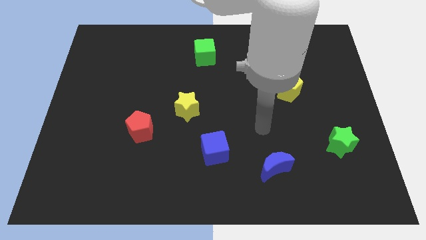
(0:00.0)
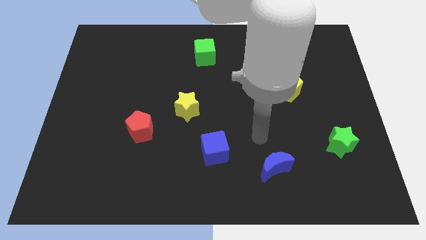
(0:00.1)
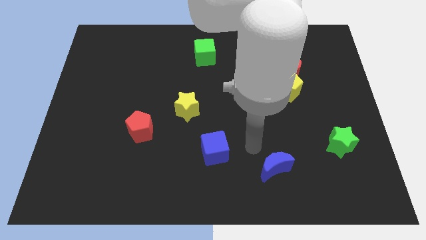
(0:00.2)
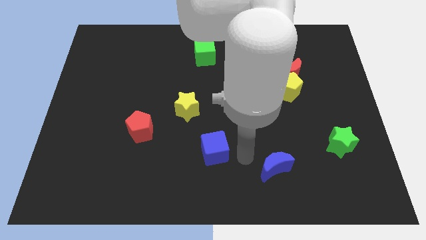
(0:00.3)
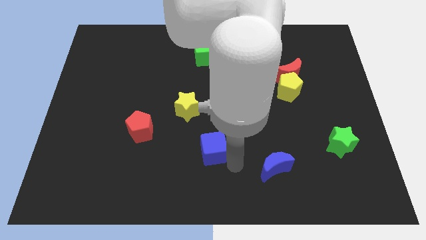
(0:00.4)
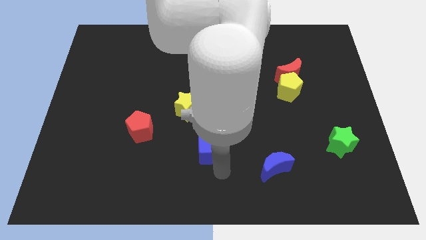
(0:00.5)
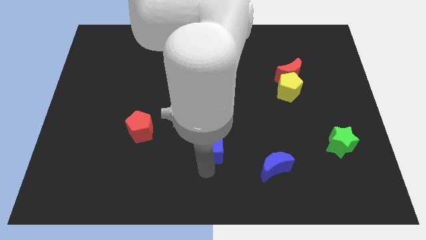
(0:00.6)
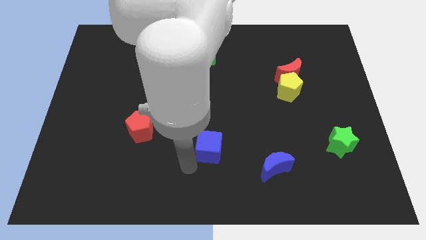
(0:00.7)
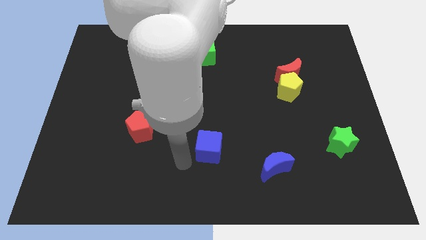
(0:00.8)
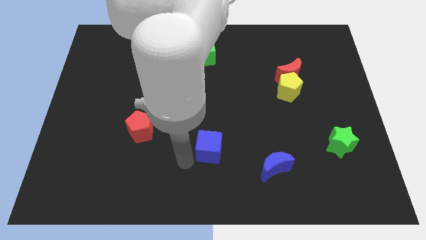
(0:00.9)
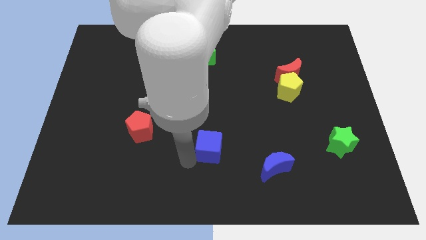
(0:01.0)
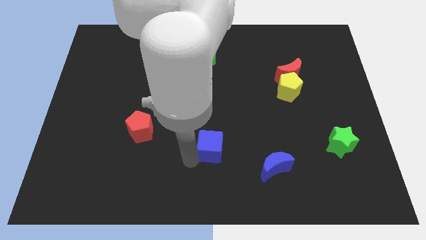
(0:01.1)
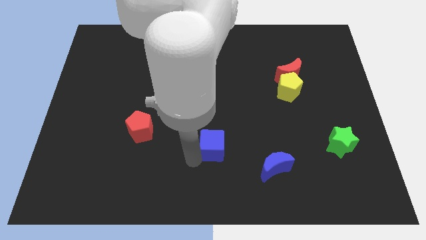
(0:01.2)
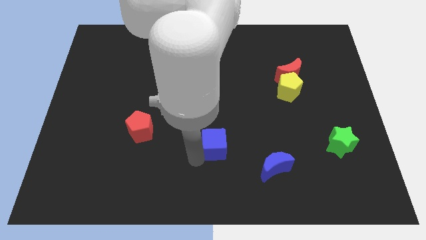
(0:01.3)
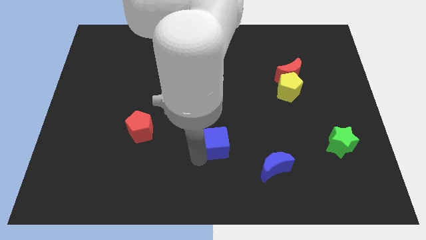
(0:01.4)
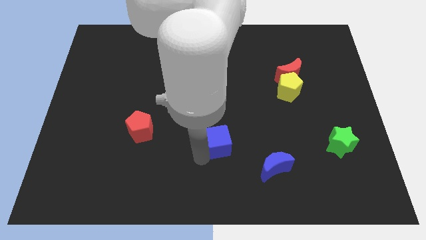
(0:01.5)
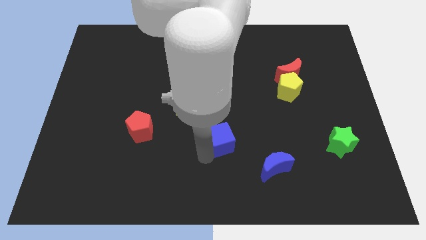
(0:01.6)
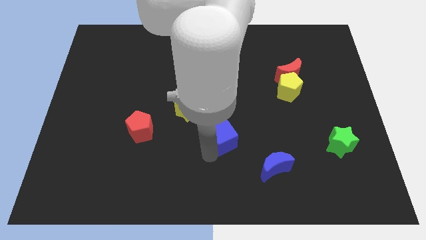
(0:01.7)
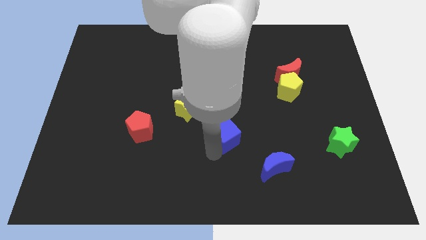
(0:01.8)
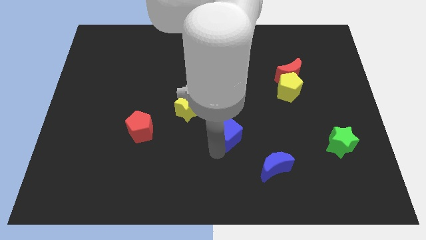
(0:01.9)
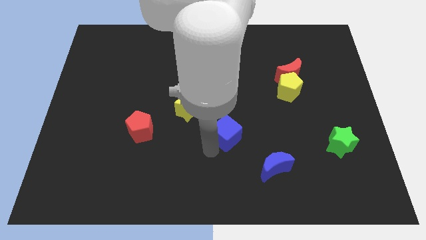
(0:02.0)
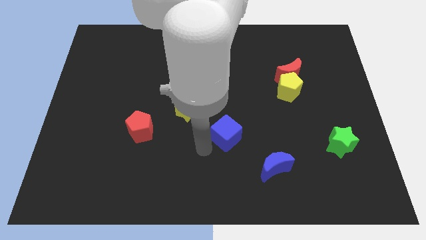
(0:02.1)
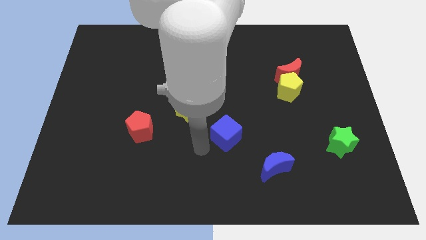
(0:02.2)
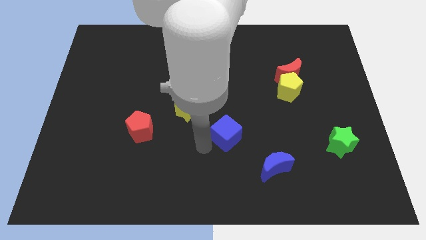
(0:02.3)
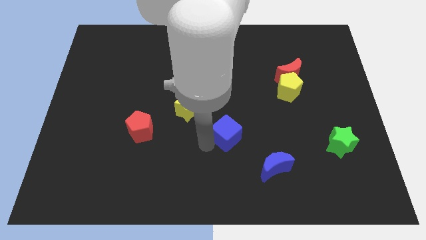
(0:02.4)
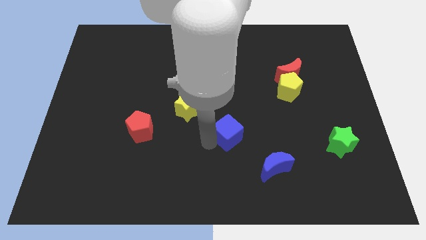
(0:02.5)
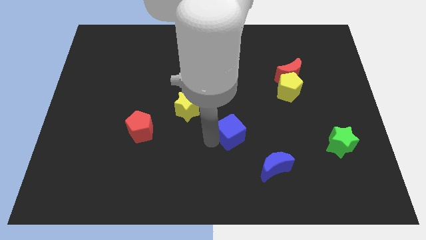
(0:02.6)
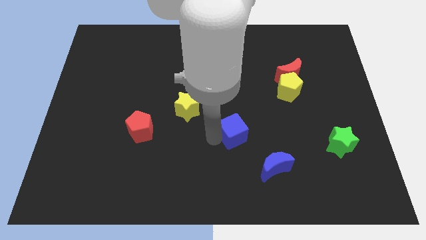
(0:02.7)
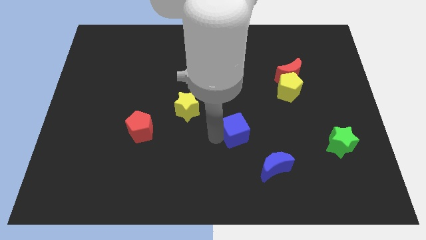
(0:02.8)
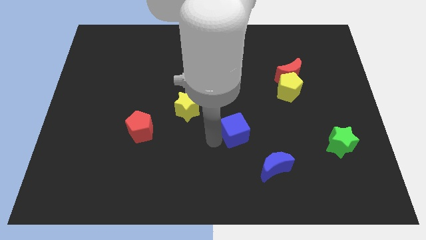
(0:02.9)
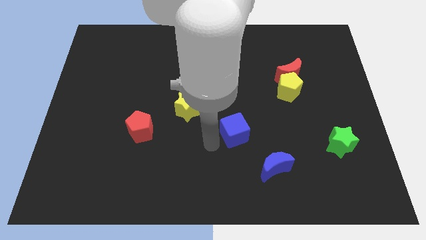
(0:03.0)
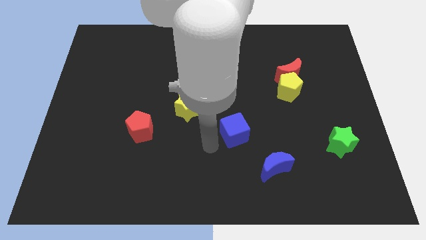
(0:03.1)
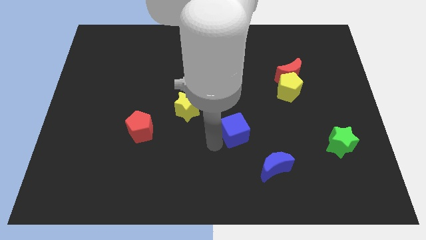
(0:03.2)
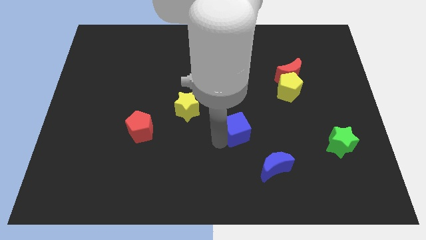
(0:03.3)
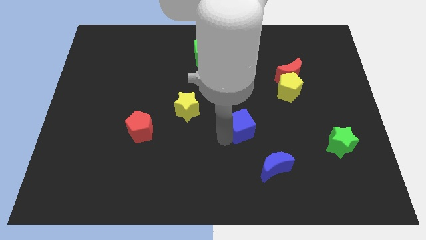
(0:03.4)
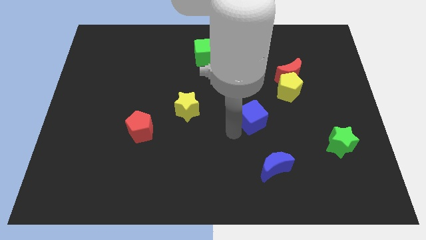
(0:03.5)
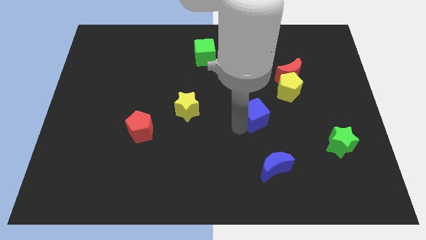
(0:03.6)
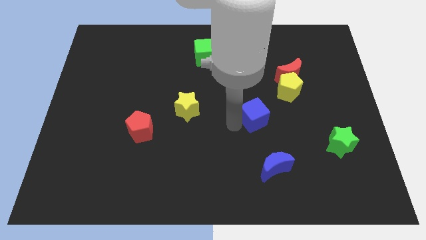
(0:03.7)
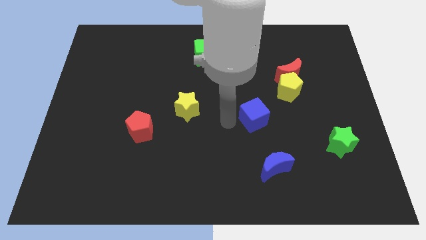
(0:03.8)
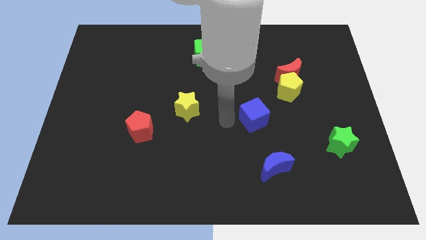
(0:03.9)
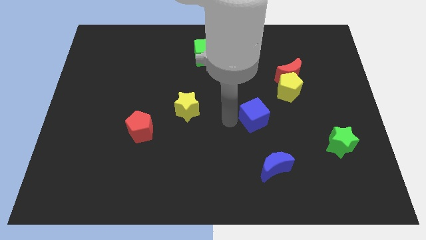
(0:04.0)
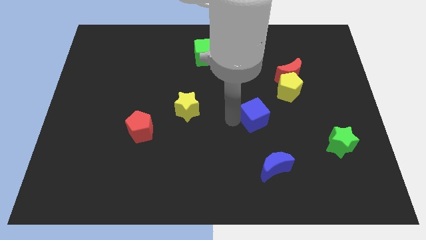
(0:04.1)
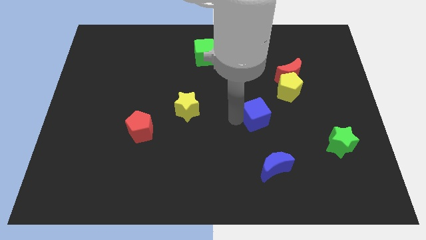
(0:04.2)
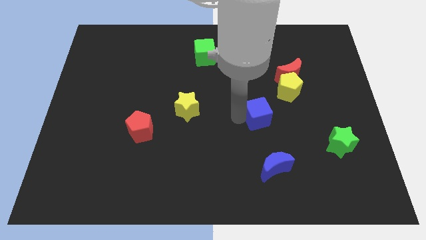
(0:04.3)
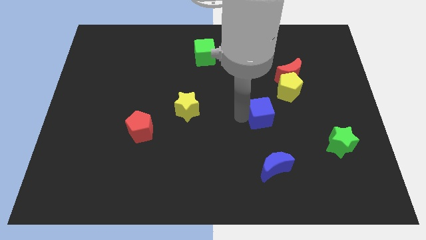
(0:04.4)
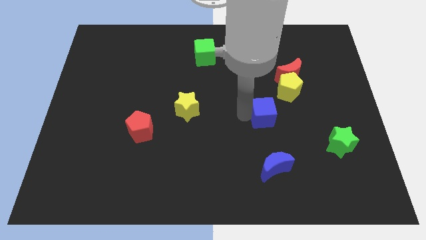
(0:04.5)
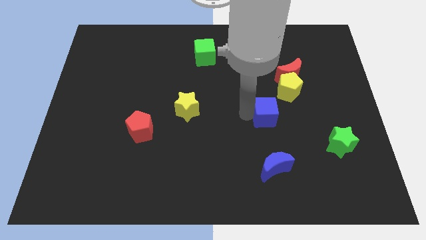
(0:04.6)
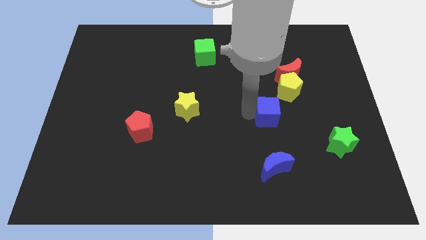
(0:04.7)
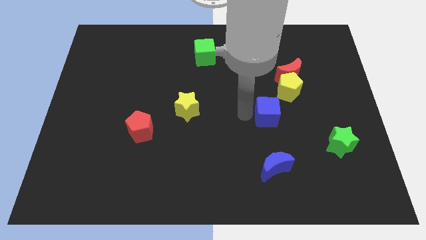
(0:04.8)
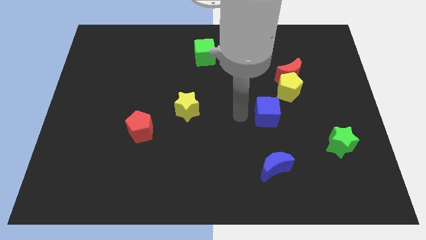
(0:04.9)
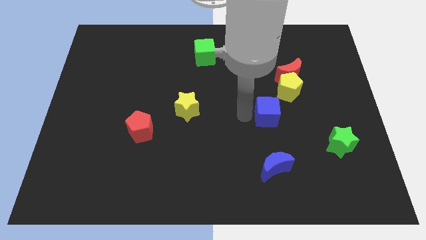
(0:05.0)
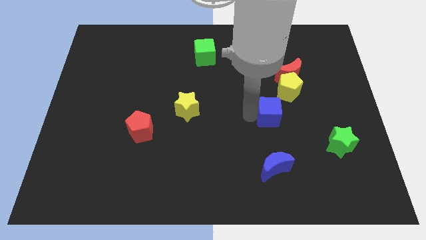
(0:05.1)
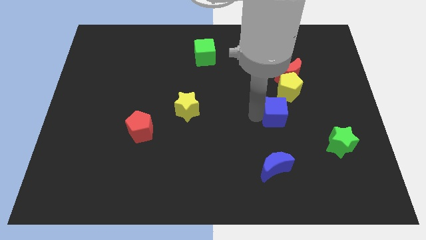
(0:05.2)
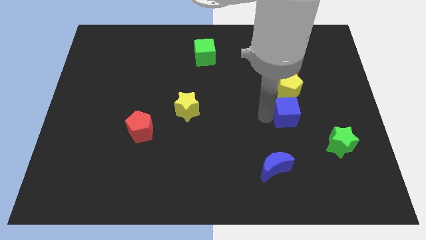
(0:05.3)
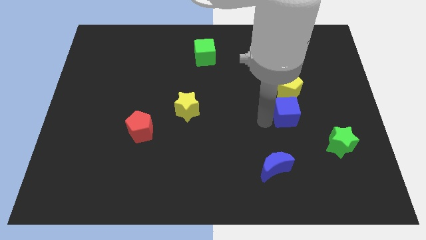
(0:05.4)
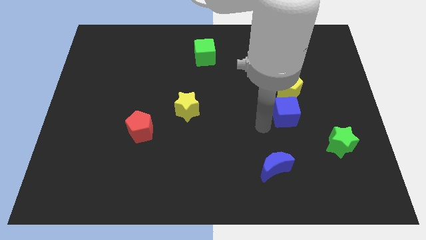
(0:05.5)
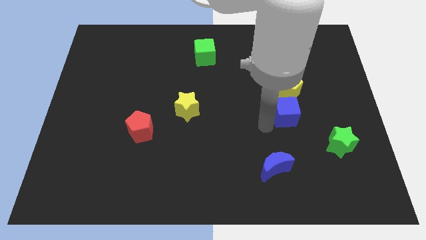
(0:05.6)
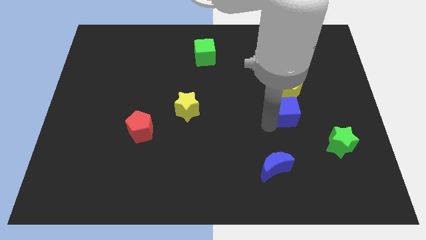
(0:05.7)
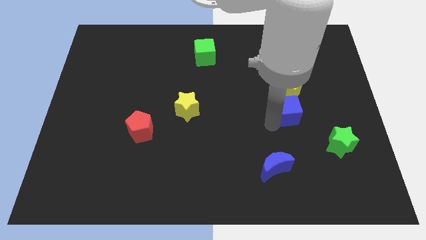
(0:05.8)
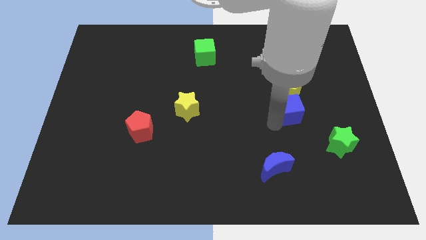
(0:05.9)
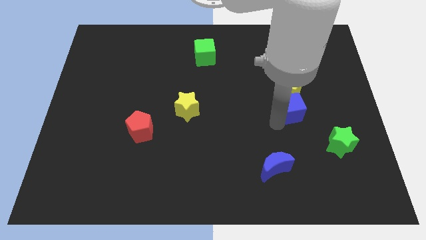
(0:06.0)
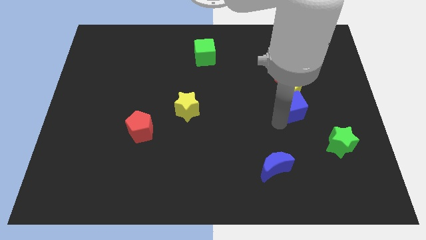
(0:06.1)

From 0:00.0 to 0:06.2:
push the blue cube up and to the right

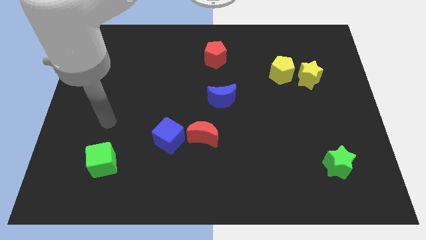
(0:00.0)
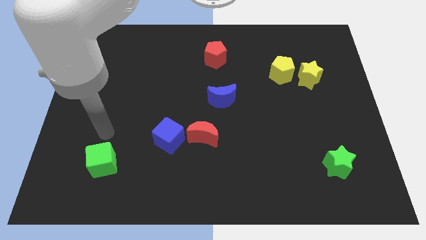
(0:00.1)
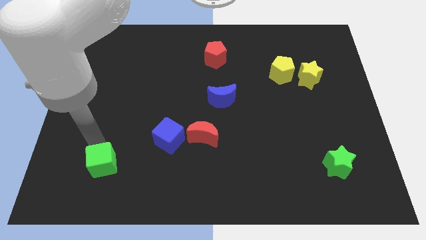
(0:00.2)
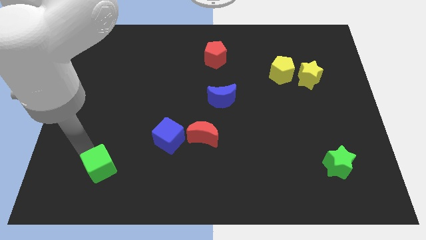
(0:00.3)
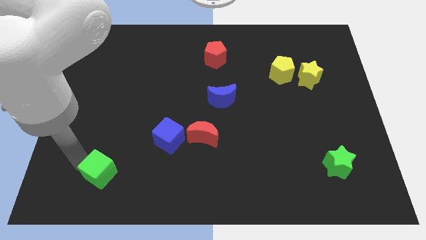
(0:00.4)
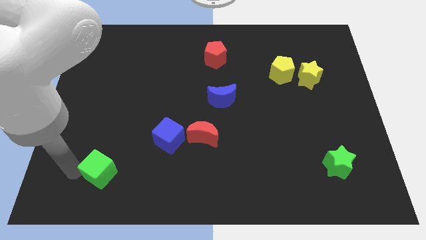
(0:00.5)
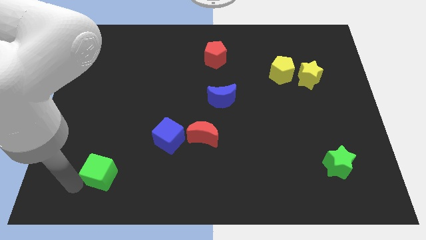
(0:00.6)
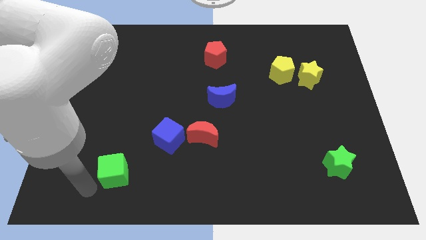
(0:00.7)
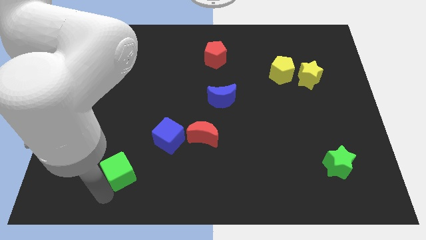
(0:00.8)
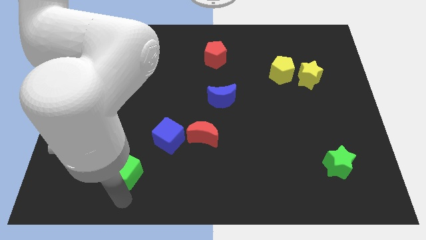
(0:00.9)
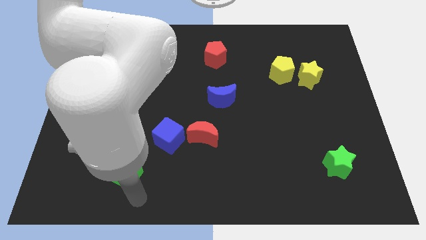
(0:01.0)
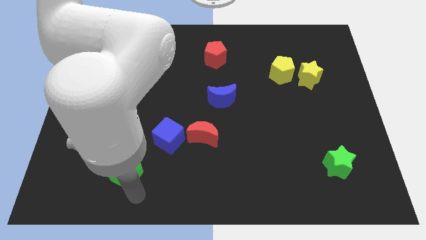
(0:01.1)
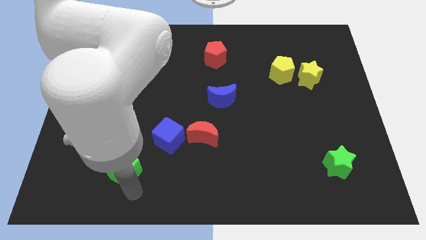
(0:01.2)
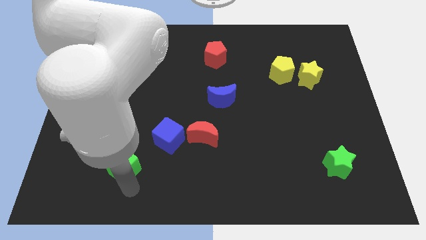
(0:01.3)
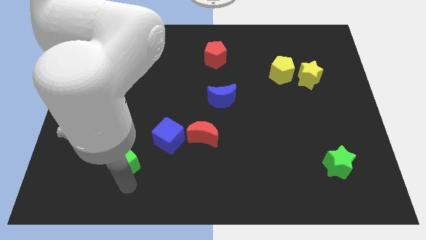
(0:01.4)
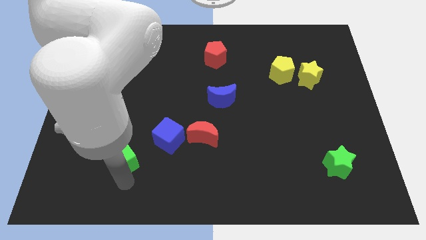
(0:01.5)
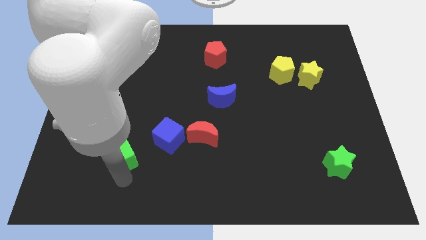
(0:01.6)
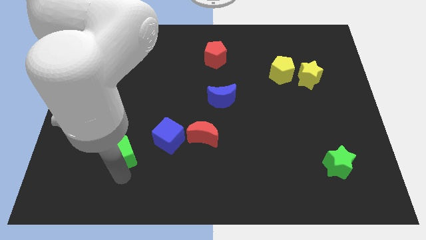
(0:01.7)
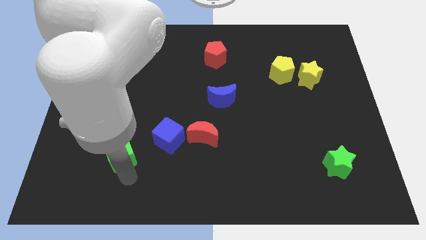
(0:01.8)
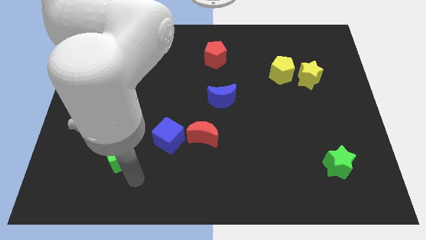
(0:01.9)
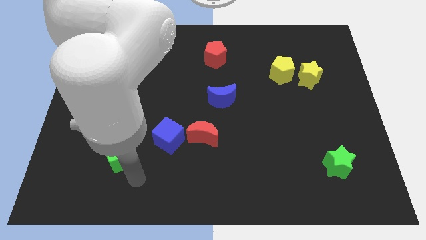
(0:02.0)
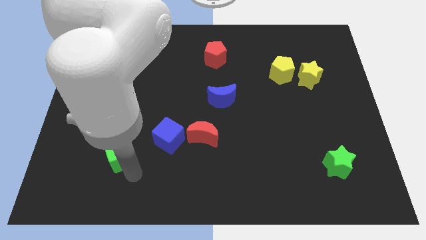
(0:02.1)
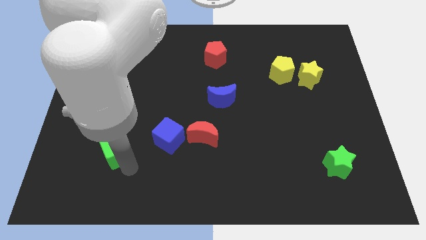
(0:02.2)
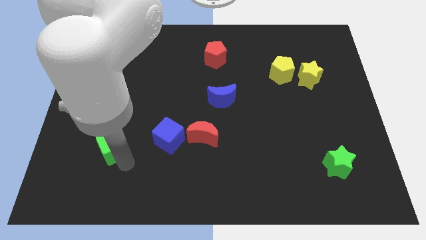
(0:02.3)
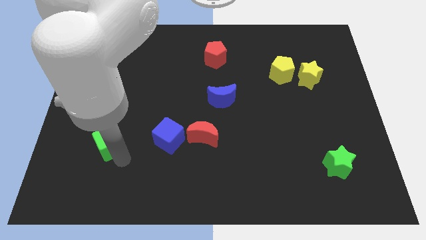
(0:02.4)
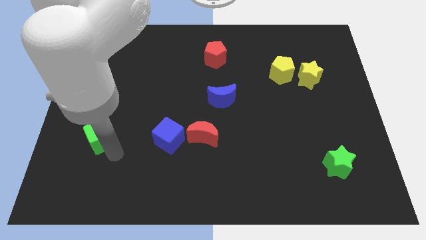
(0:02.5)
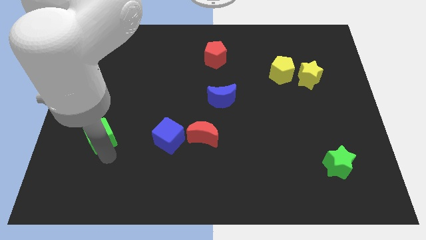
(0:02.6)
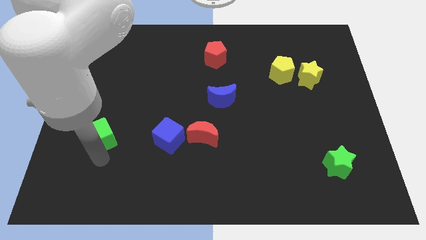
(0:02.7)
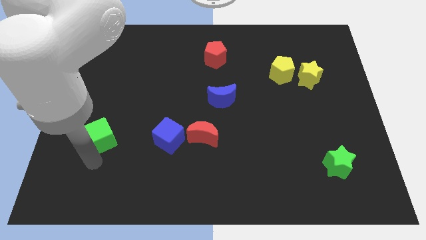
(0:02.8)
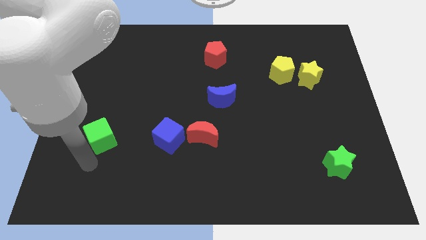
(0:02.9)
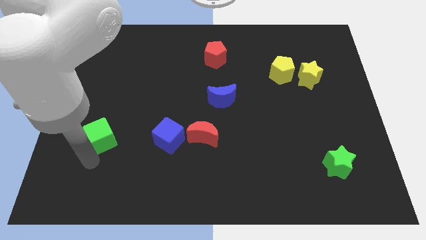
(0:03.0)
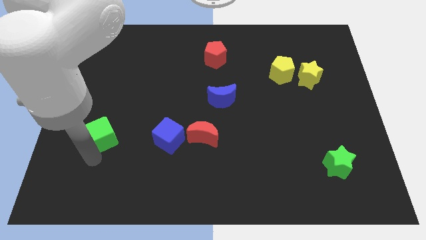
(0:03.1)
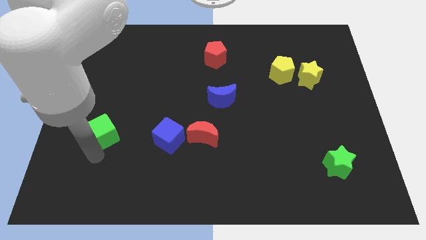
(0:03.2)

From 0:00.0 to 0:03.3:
slightly move the green cube upwards
